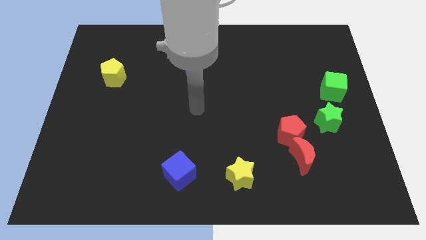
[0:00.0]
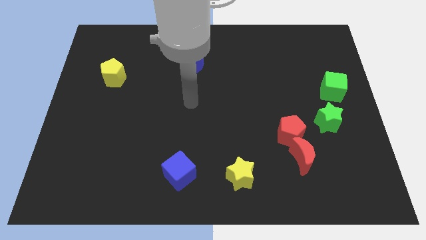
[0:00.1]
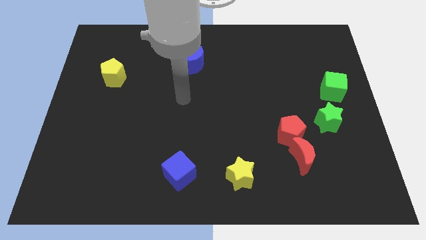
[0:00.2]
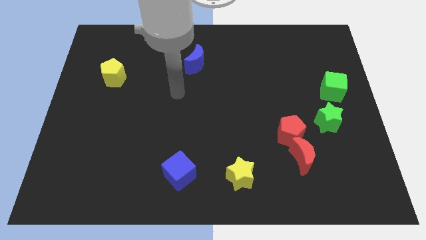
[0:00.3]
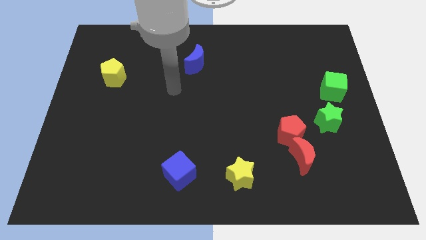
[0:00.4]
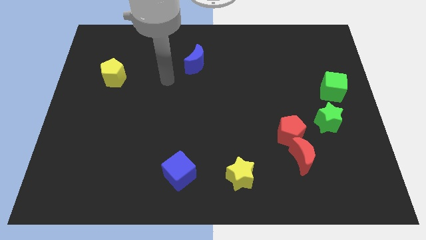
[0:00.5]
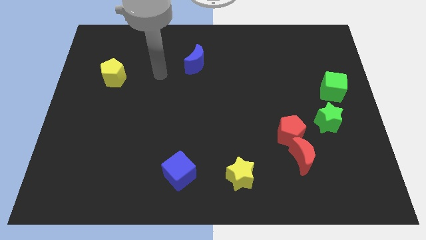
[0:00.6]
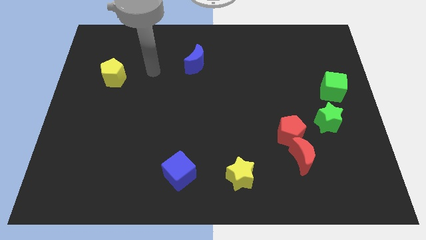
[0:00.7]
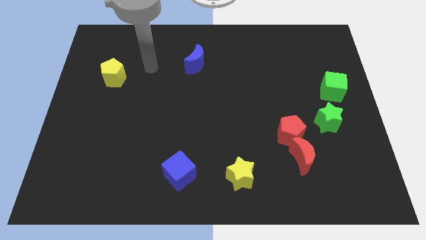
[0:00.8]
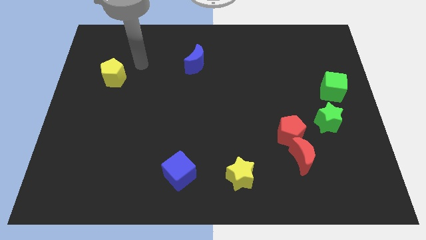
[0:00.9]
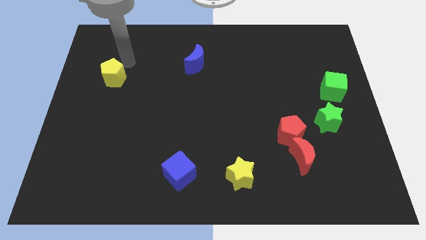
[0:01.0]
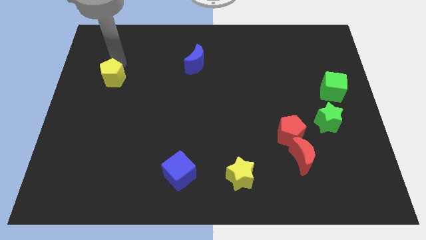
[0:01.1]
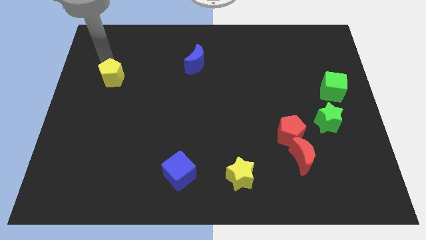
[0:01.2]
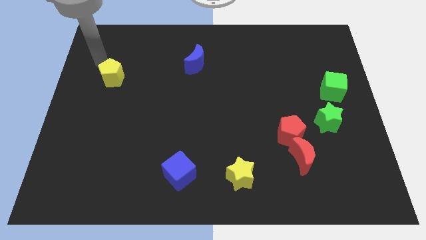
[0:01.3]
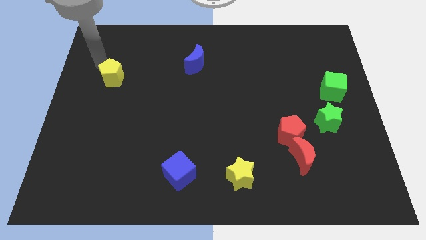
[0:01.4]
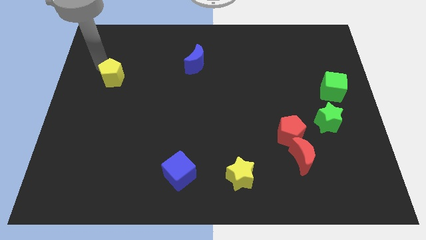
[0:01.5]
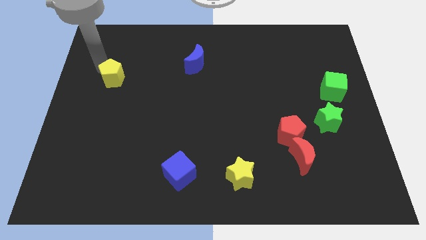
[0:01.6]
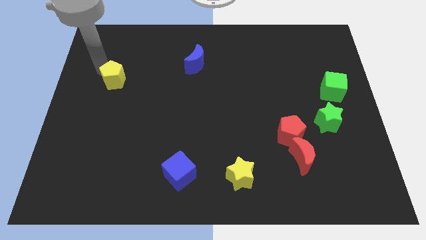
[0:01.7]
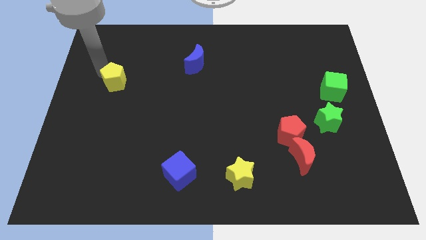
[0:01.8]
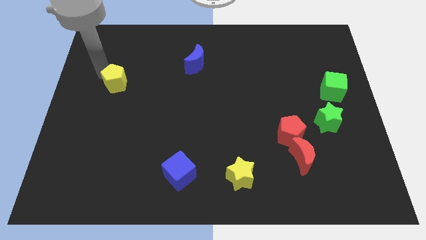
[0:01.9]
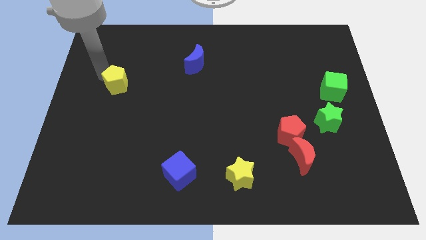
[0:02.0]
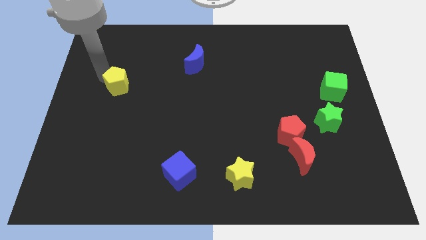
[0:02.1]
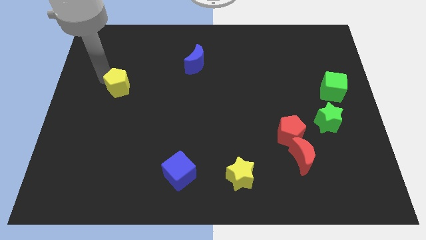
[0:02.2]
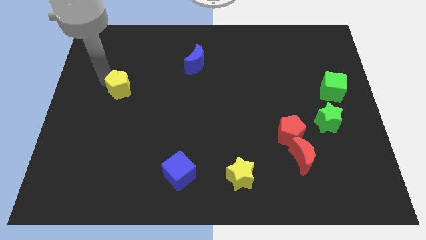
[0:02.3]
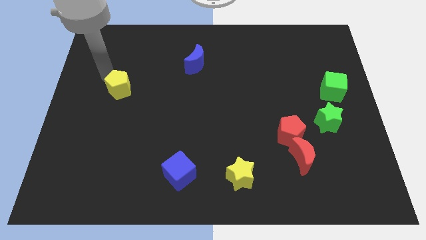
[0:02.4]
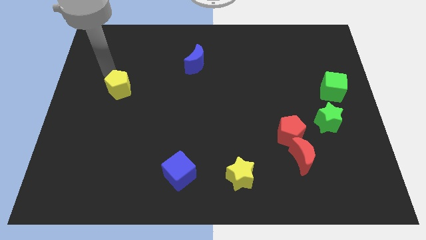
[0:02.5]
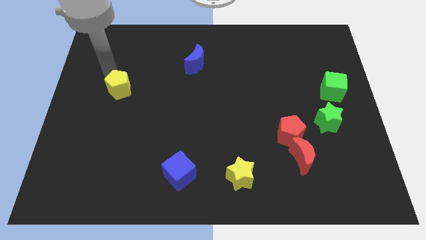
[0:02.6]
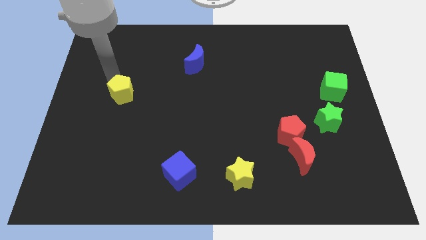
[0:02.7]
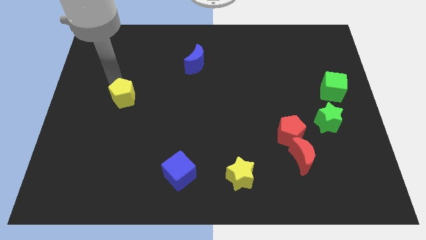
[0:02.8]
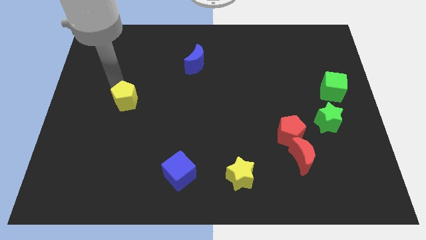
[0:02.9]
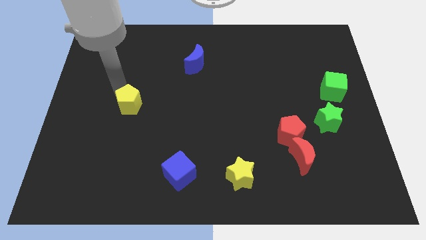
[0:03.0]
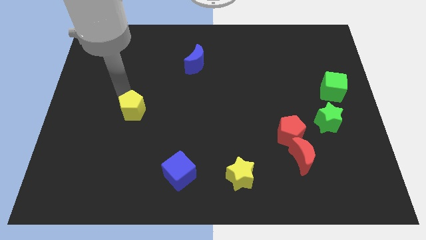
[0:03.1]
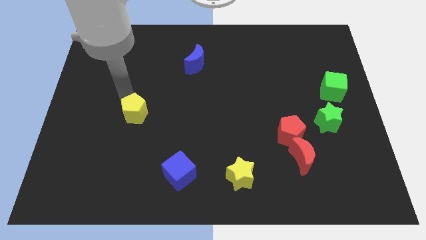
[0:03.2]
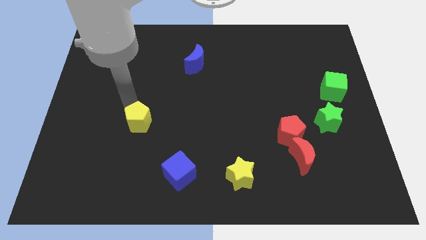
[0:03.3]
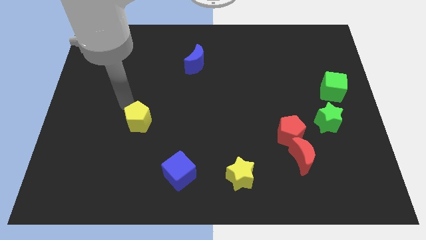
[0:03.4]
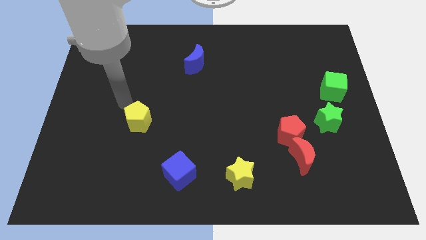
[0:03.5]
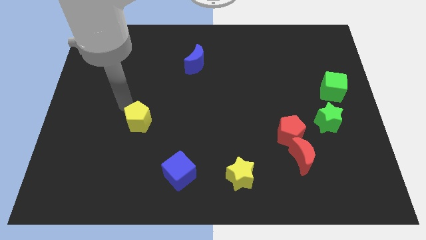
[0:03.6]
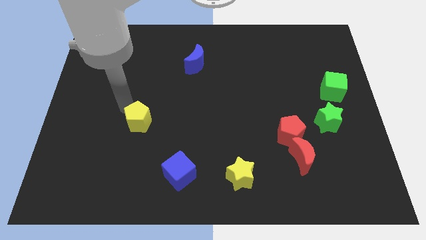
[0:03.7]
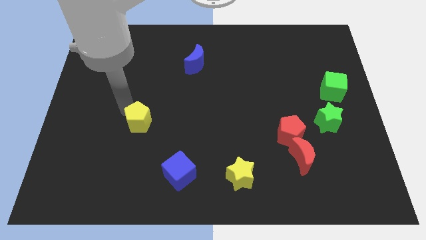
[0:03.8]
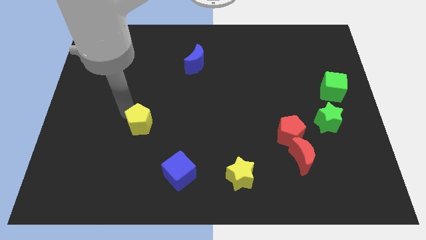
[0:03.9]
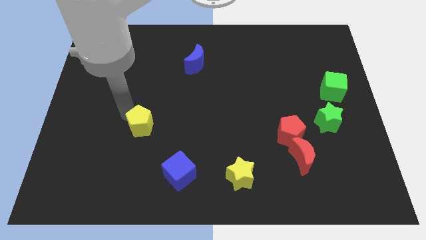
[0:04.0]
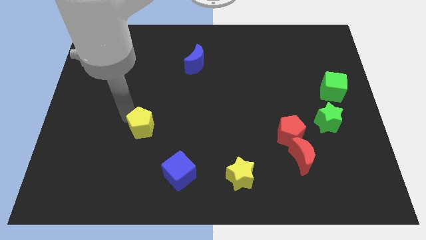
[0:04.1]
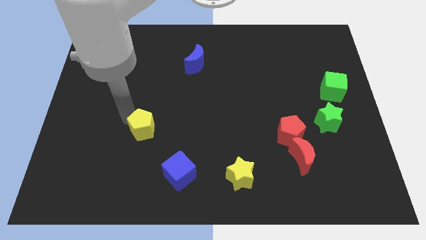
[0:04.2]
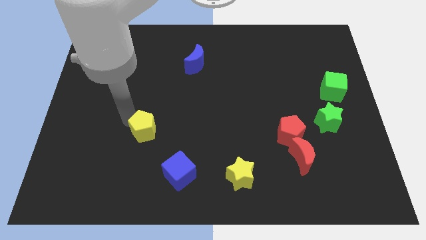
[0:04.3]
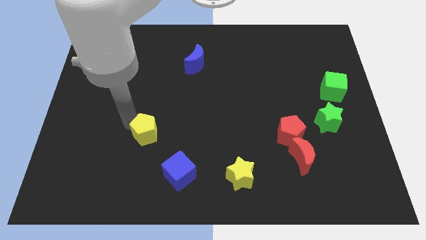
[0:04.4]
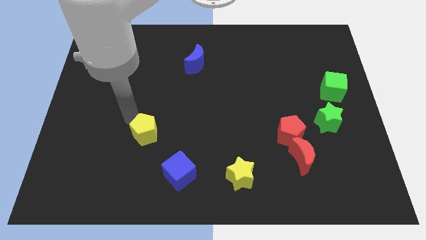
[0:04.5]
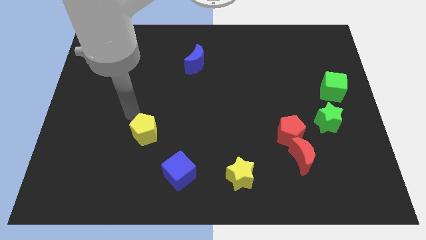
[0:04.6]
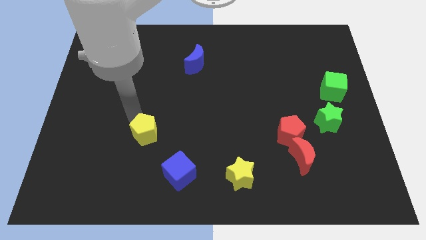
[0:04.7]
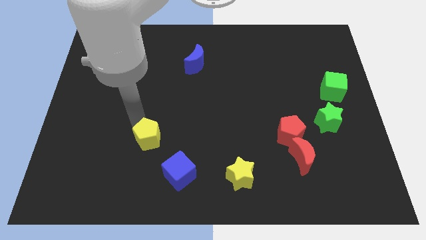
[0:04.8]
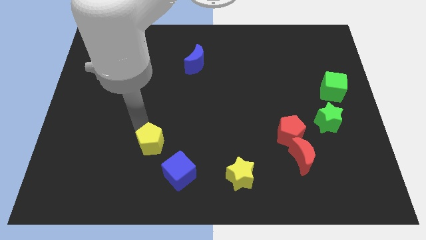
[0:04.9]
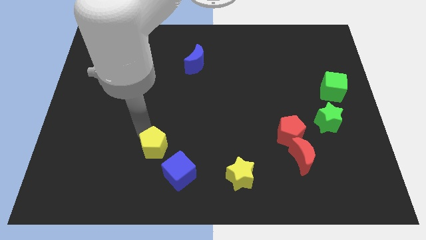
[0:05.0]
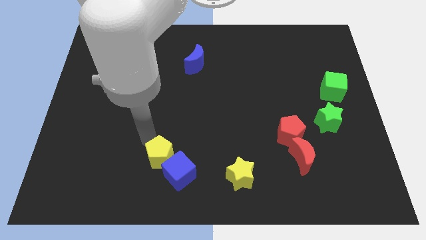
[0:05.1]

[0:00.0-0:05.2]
put the yellow pentagon towards the blue cube

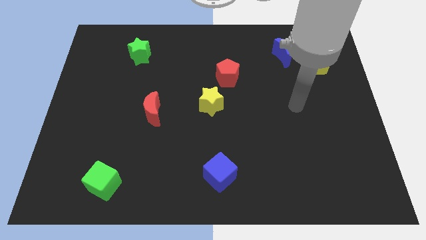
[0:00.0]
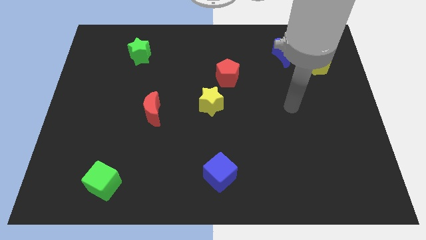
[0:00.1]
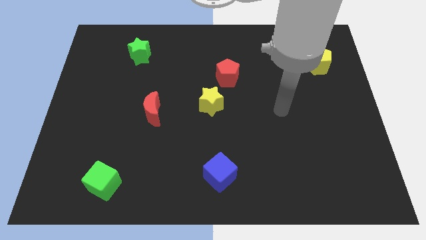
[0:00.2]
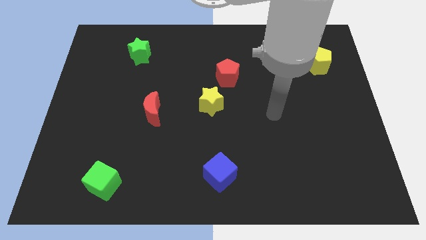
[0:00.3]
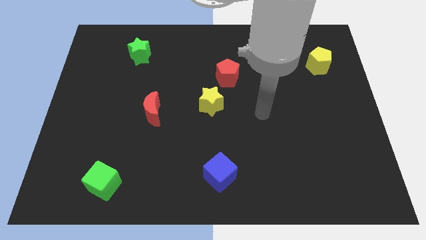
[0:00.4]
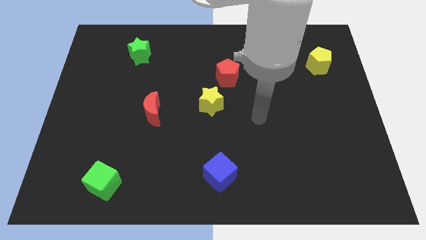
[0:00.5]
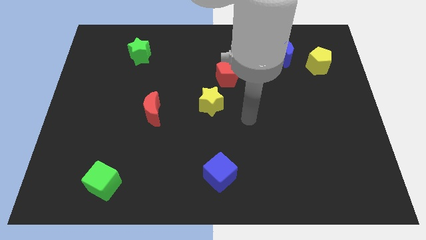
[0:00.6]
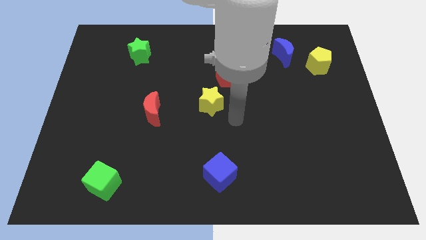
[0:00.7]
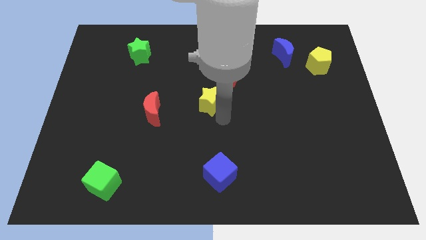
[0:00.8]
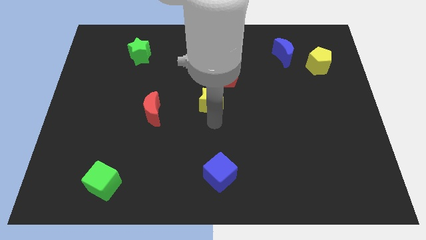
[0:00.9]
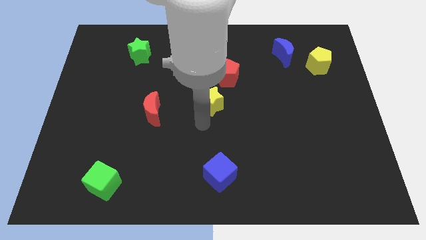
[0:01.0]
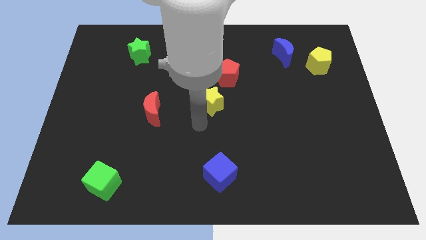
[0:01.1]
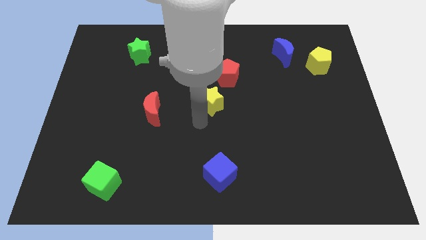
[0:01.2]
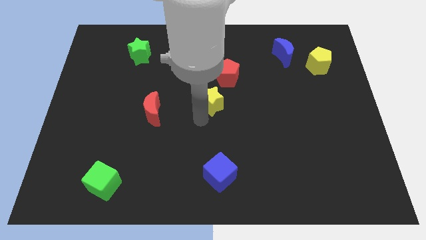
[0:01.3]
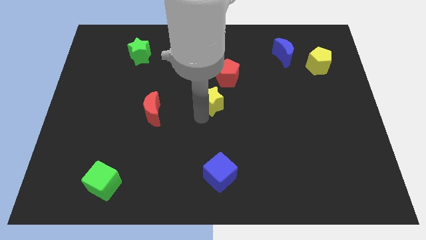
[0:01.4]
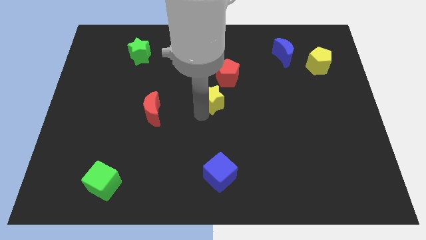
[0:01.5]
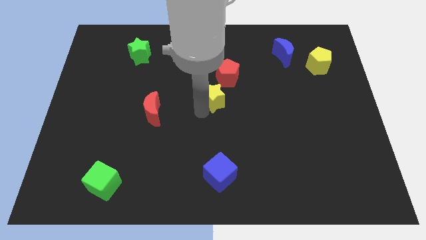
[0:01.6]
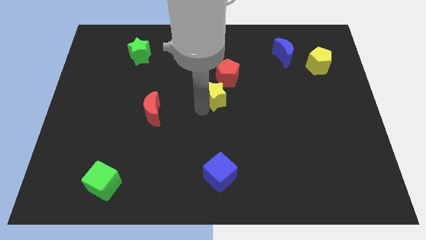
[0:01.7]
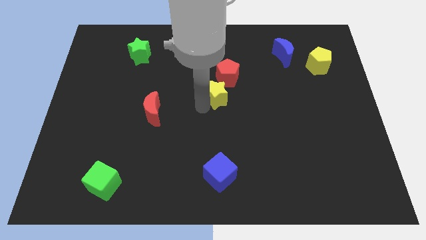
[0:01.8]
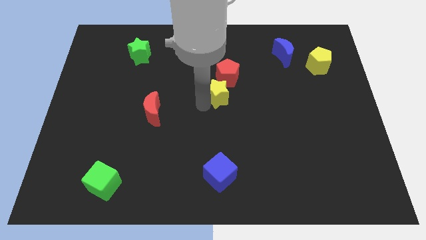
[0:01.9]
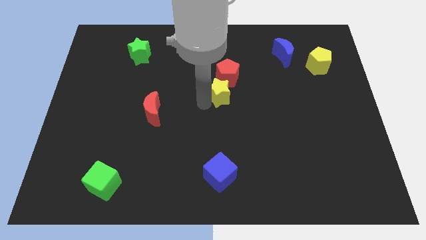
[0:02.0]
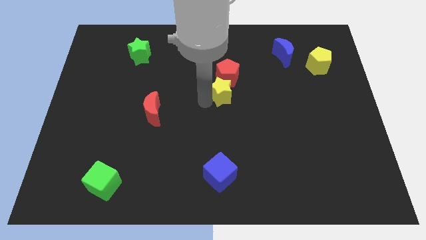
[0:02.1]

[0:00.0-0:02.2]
slide the yellow star next to the red pentagon

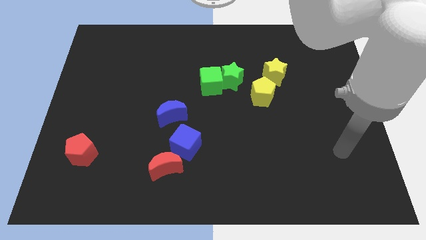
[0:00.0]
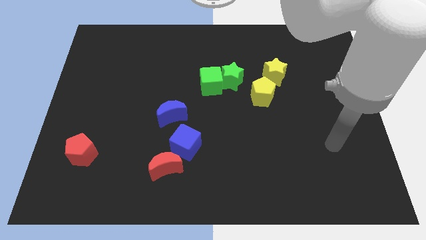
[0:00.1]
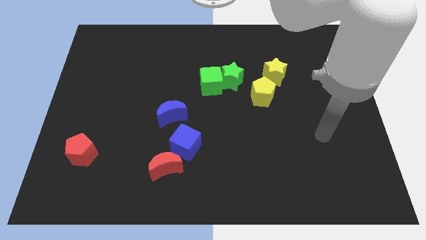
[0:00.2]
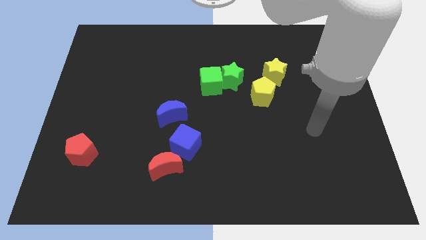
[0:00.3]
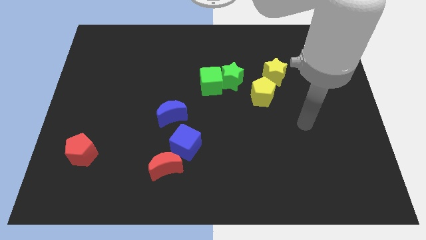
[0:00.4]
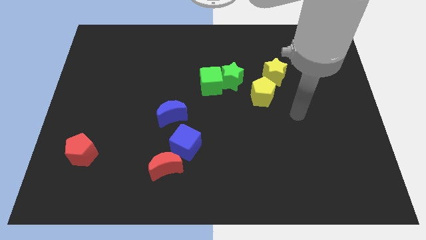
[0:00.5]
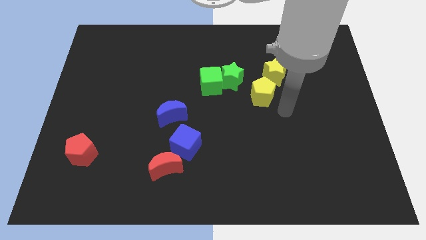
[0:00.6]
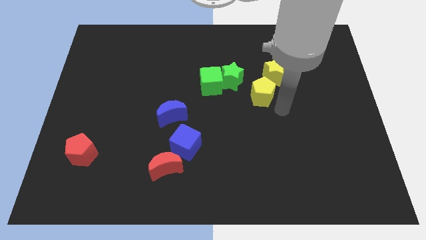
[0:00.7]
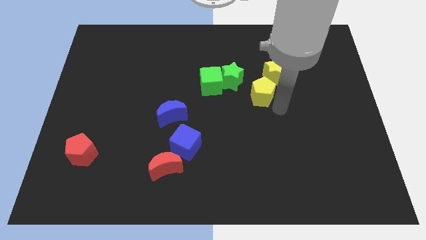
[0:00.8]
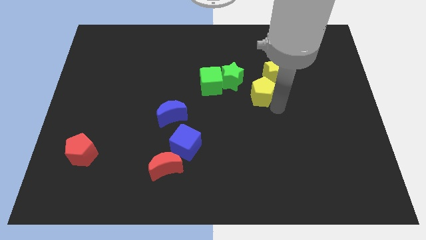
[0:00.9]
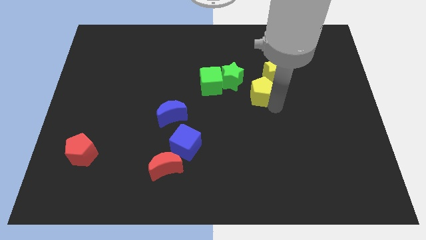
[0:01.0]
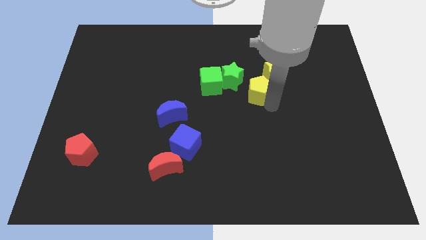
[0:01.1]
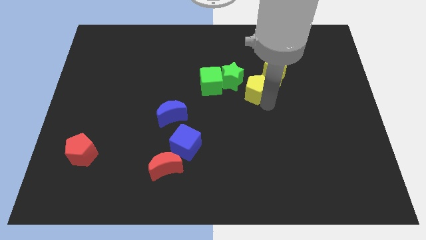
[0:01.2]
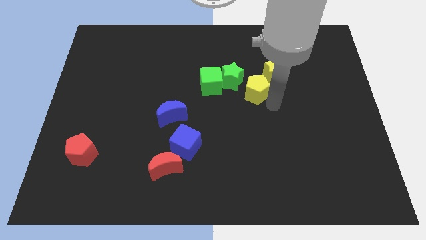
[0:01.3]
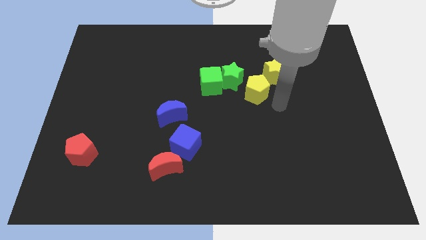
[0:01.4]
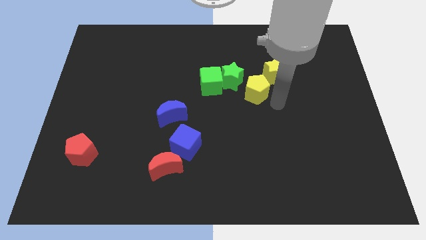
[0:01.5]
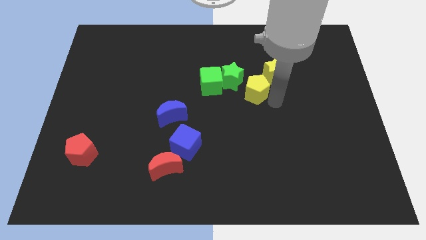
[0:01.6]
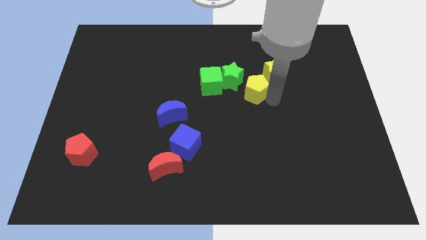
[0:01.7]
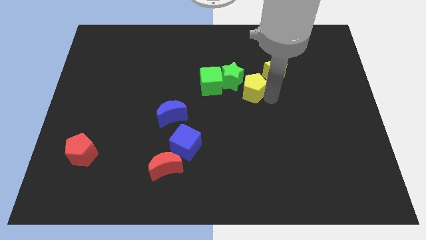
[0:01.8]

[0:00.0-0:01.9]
move the yellow pentagon to the green star
